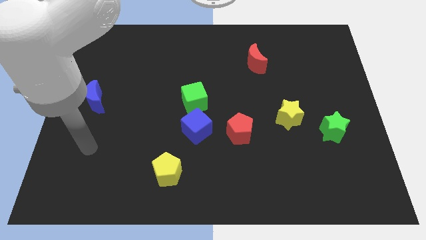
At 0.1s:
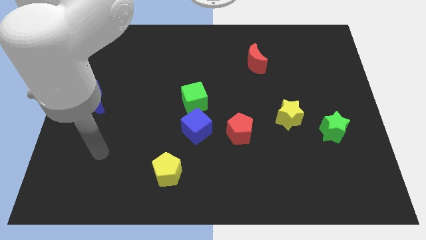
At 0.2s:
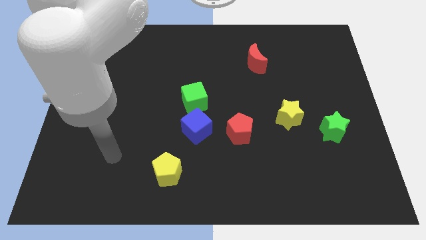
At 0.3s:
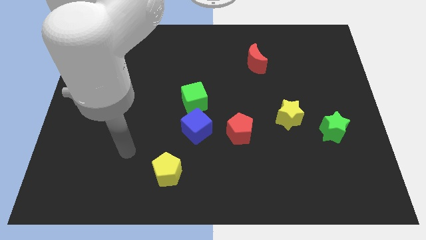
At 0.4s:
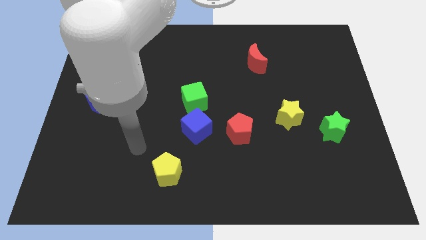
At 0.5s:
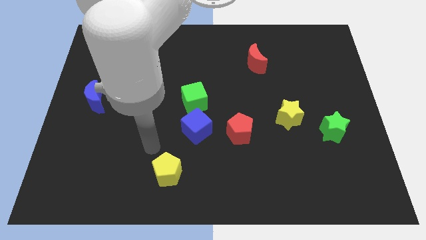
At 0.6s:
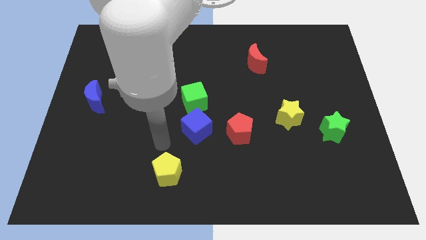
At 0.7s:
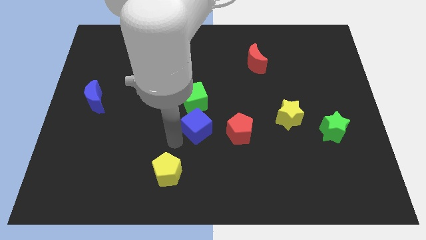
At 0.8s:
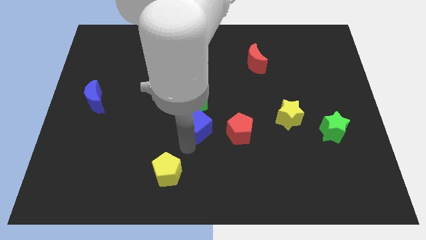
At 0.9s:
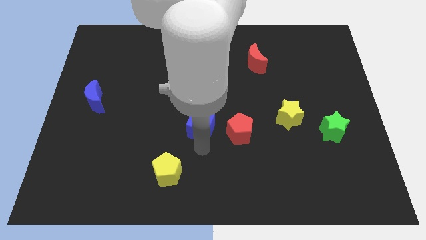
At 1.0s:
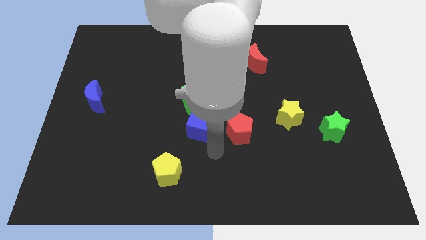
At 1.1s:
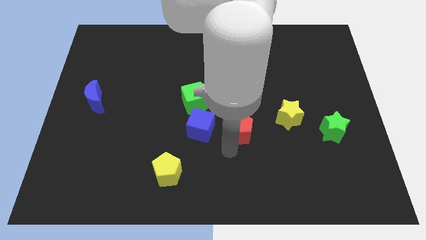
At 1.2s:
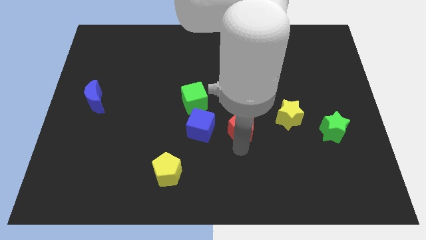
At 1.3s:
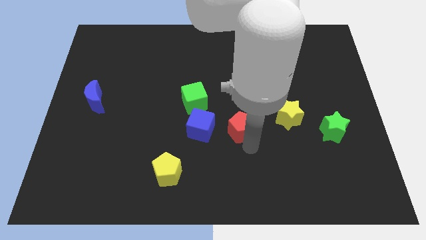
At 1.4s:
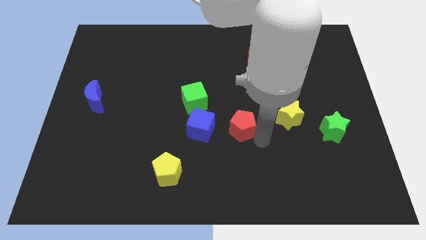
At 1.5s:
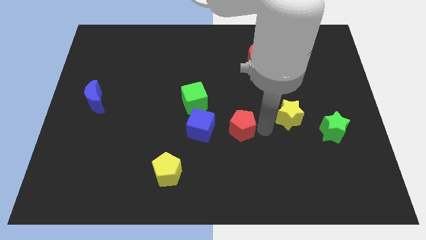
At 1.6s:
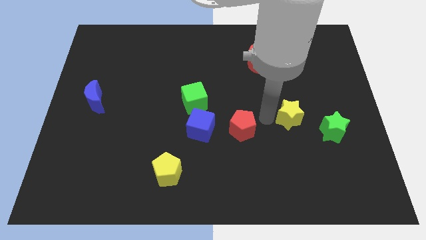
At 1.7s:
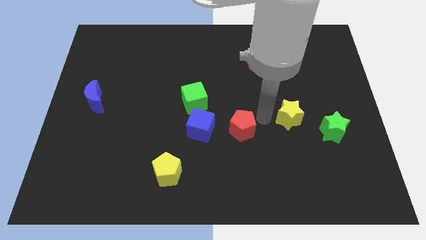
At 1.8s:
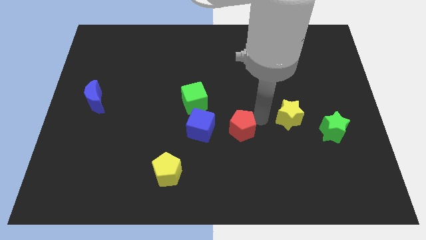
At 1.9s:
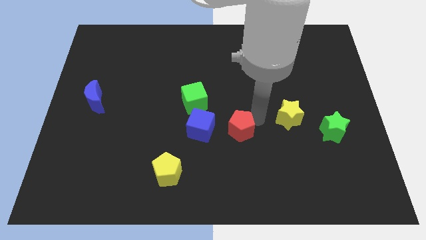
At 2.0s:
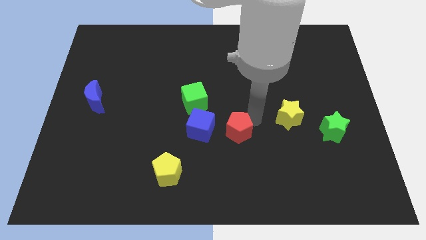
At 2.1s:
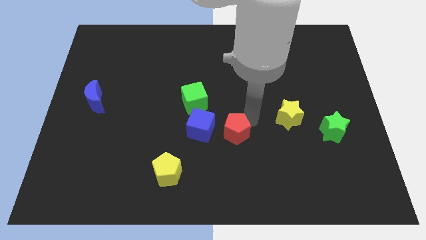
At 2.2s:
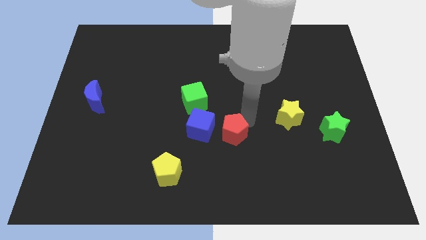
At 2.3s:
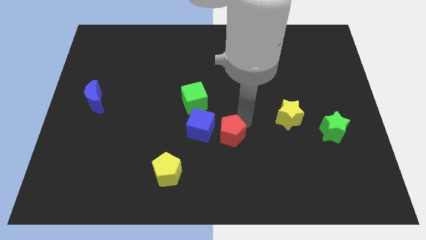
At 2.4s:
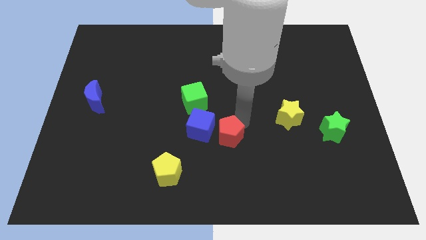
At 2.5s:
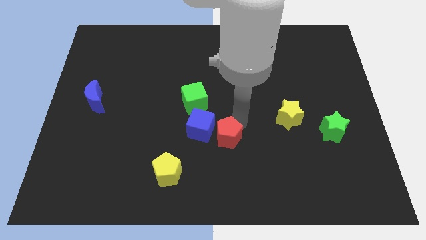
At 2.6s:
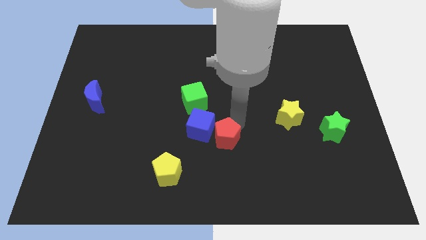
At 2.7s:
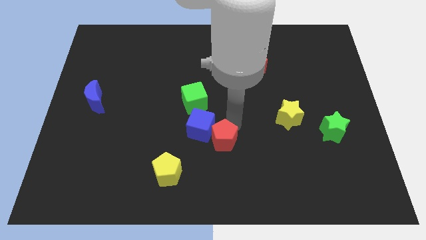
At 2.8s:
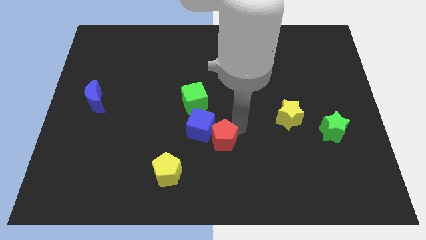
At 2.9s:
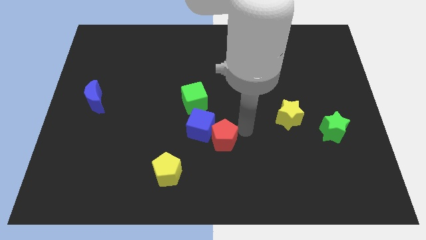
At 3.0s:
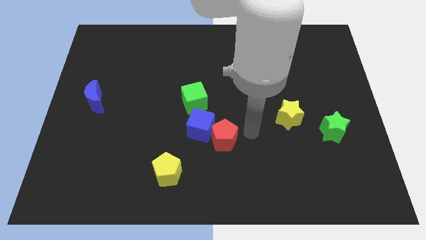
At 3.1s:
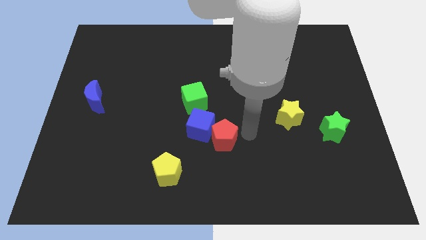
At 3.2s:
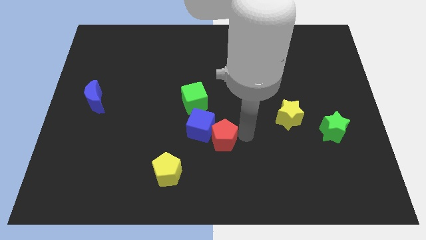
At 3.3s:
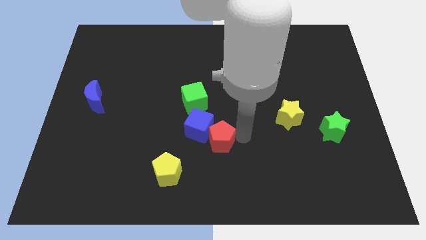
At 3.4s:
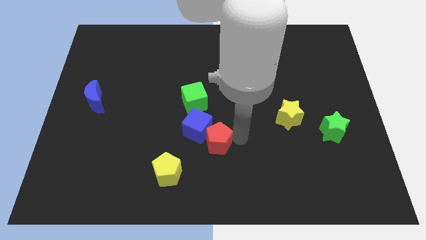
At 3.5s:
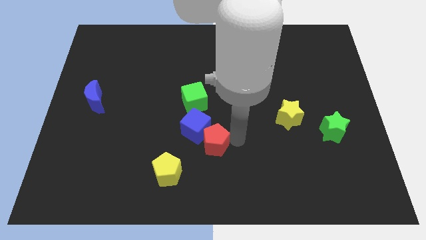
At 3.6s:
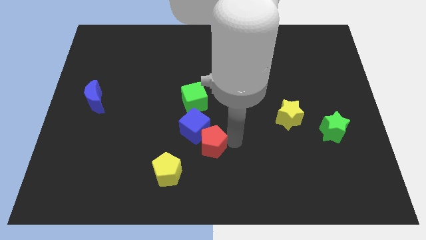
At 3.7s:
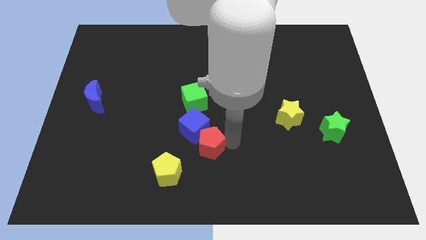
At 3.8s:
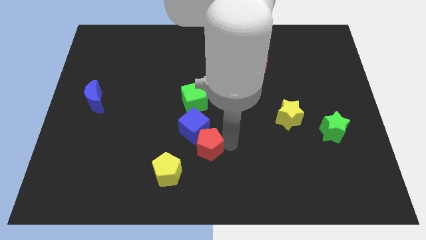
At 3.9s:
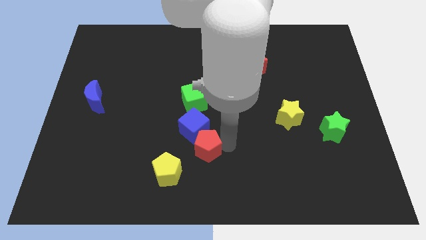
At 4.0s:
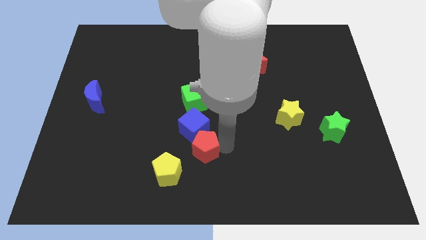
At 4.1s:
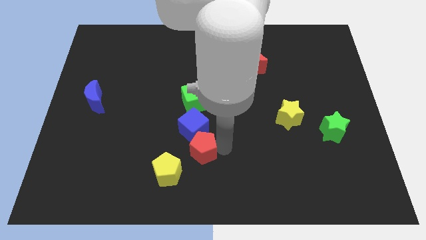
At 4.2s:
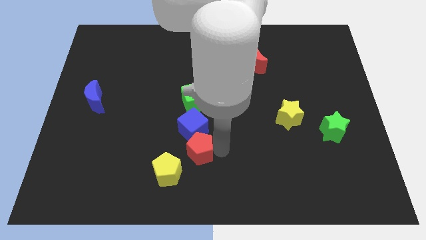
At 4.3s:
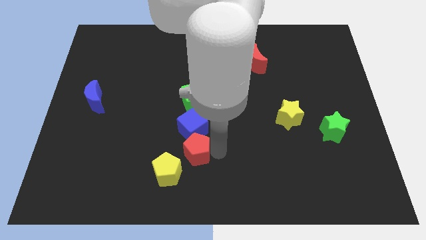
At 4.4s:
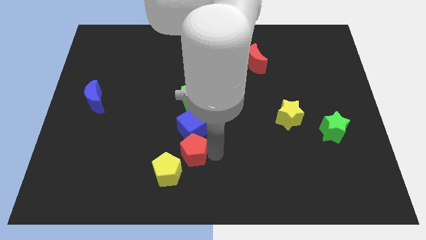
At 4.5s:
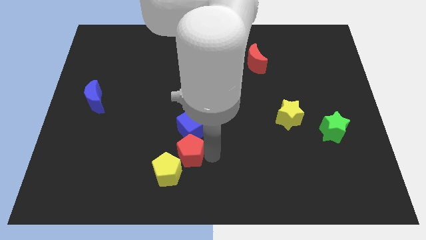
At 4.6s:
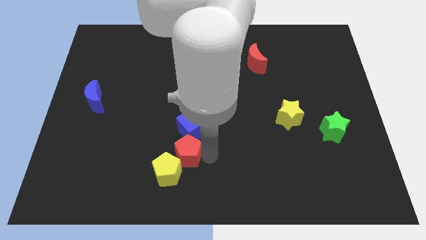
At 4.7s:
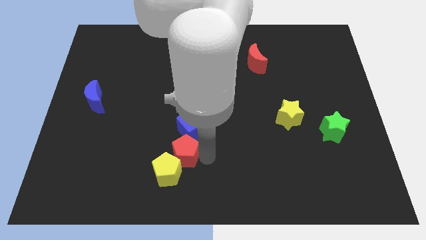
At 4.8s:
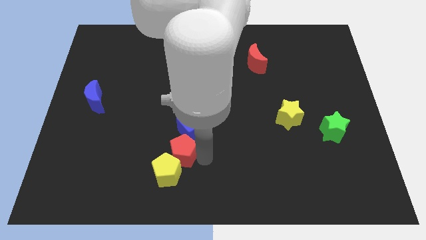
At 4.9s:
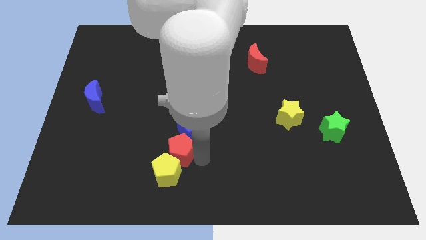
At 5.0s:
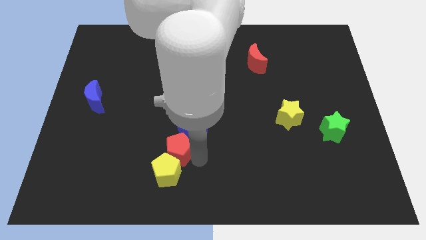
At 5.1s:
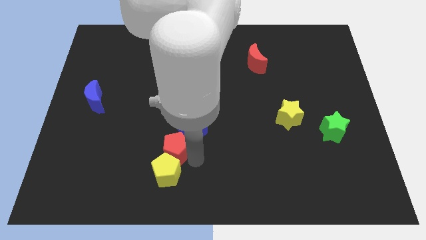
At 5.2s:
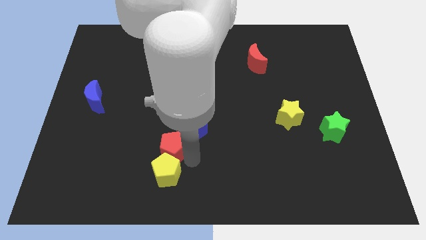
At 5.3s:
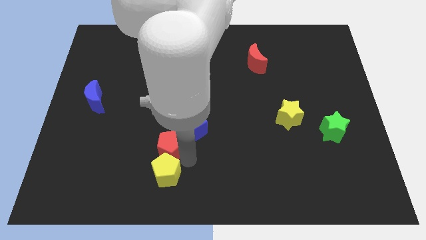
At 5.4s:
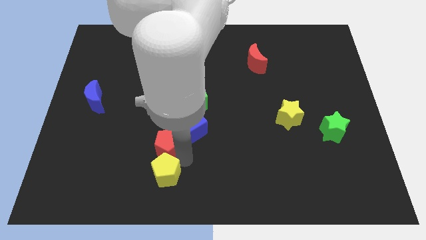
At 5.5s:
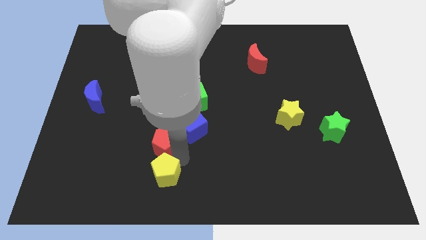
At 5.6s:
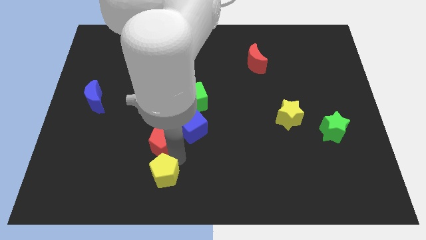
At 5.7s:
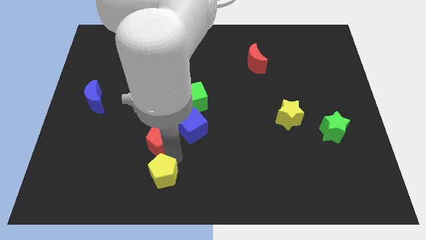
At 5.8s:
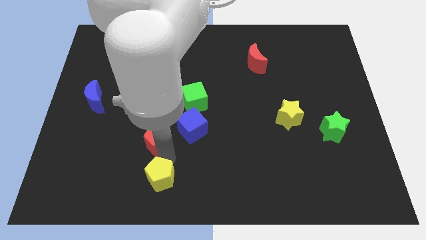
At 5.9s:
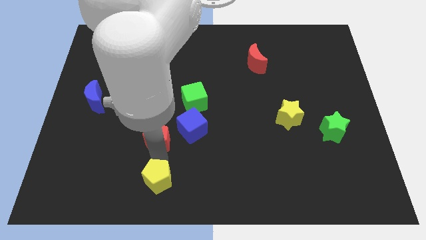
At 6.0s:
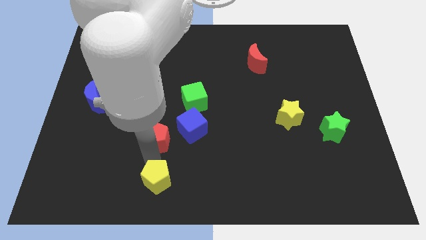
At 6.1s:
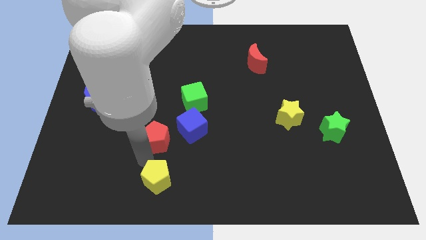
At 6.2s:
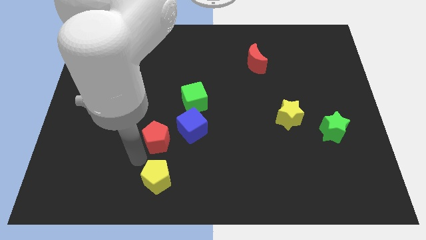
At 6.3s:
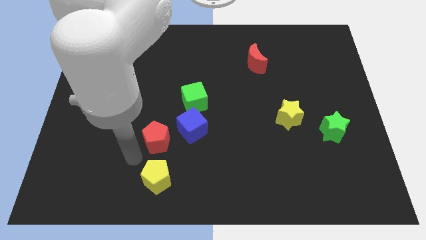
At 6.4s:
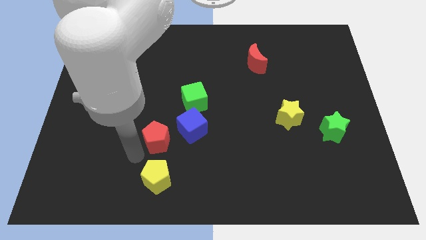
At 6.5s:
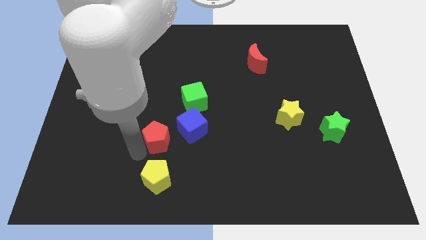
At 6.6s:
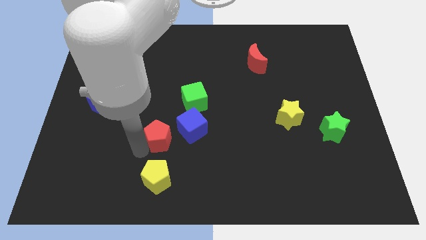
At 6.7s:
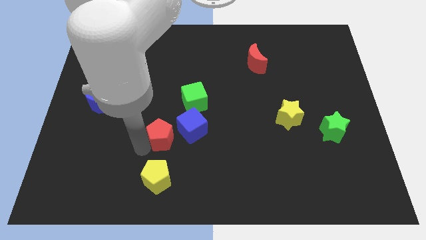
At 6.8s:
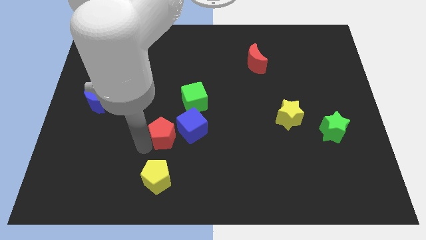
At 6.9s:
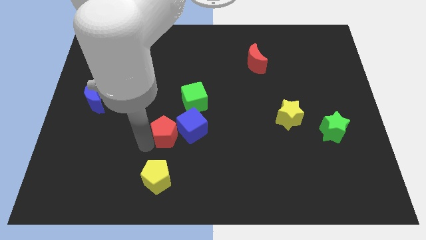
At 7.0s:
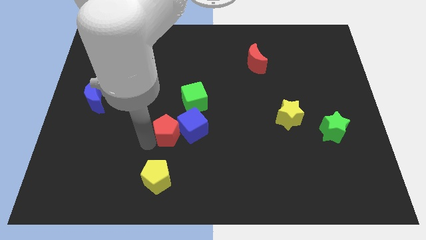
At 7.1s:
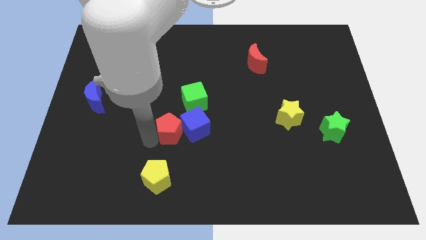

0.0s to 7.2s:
push the red pentagon to the top left side of the blue cube
